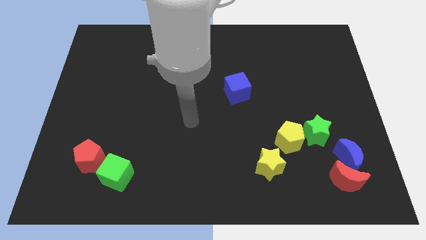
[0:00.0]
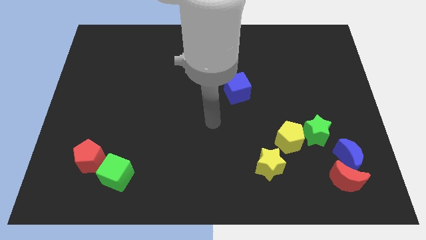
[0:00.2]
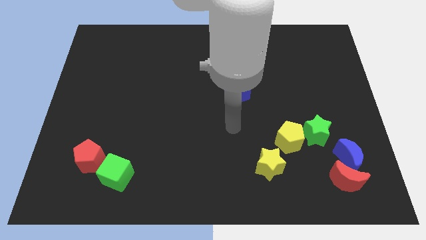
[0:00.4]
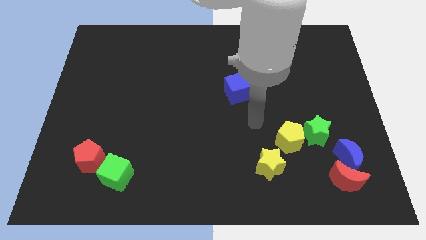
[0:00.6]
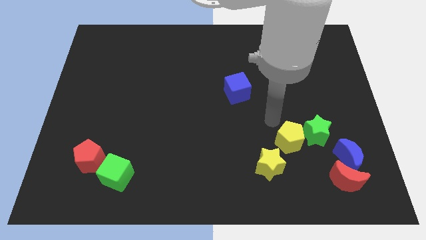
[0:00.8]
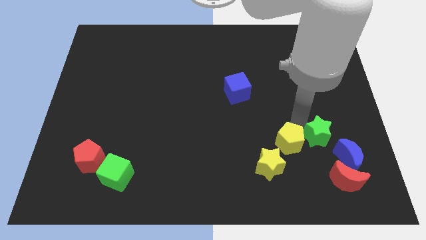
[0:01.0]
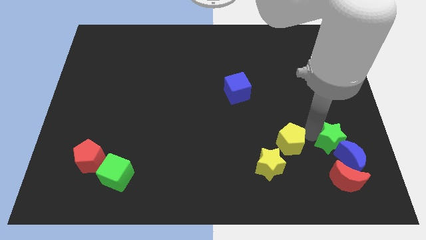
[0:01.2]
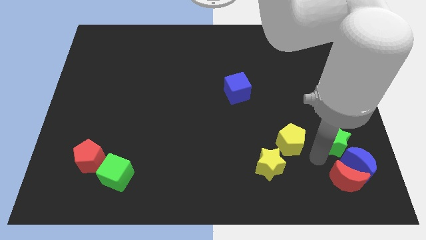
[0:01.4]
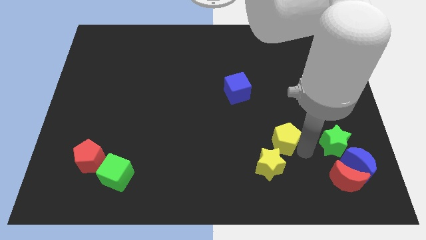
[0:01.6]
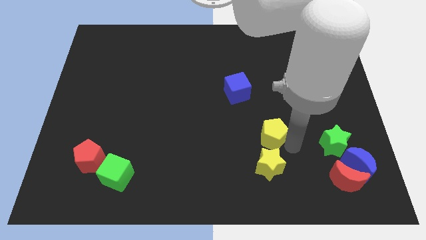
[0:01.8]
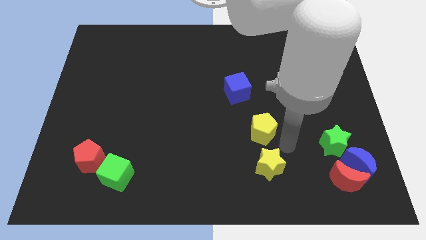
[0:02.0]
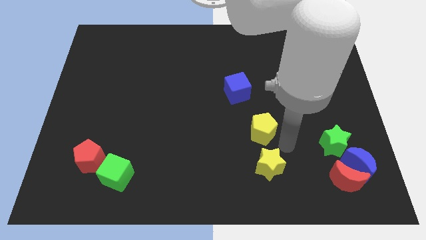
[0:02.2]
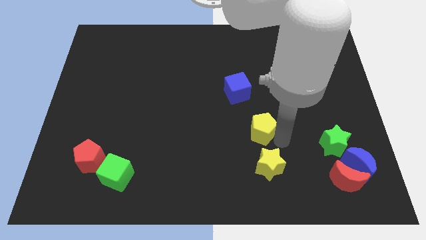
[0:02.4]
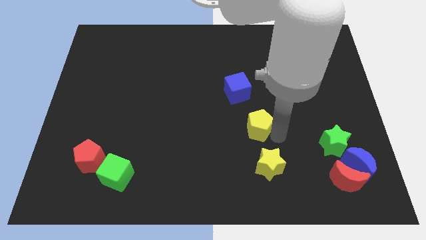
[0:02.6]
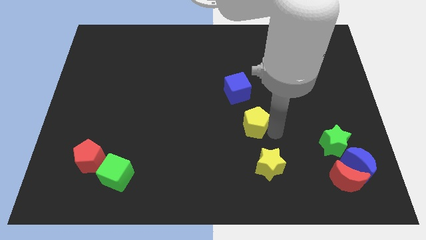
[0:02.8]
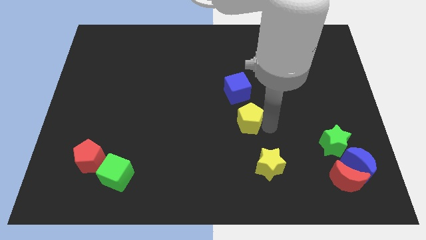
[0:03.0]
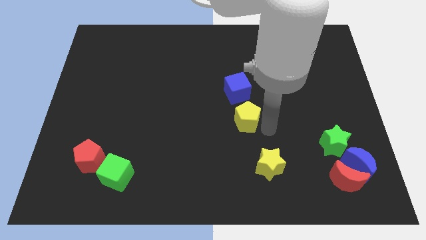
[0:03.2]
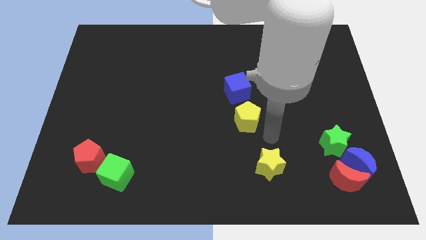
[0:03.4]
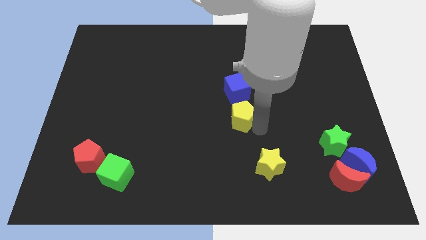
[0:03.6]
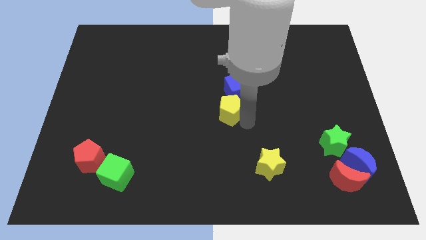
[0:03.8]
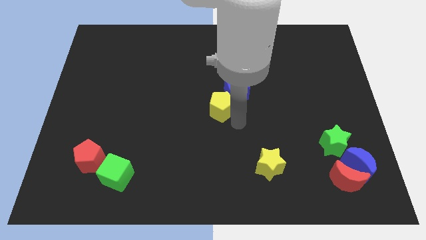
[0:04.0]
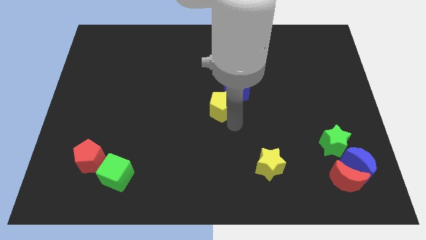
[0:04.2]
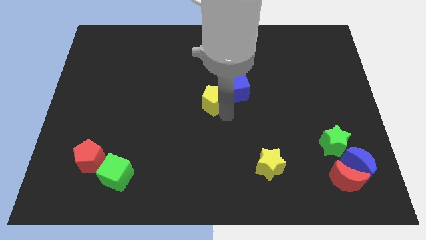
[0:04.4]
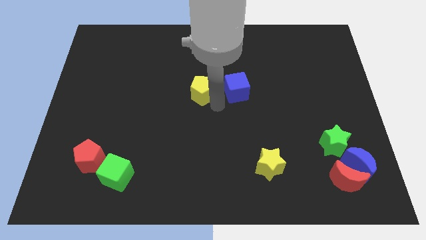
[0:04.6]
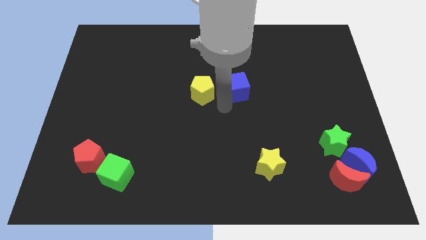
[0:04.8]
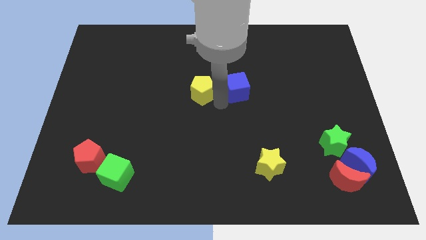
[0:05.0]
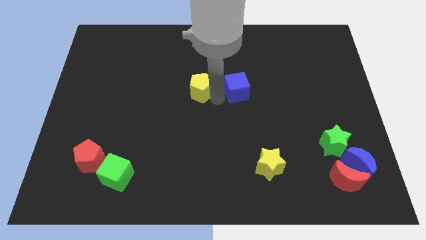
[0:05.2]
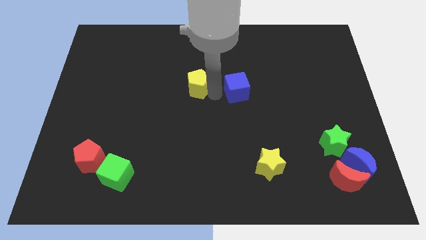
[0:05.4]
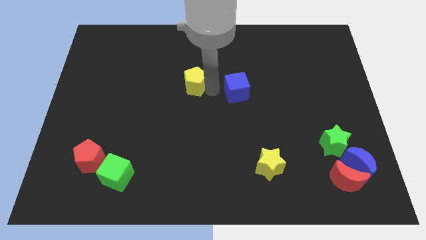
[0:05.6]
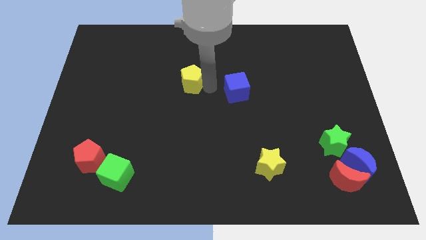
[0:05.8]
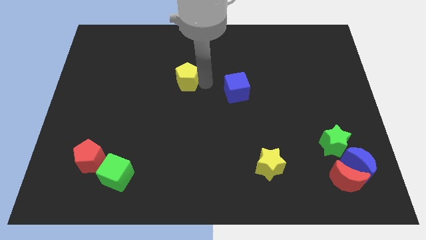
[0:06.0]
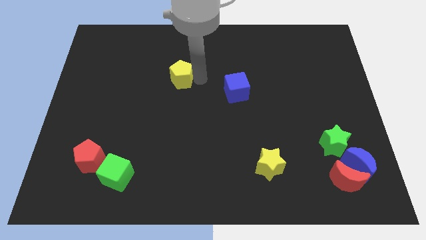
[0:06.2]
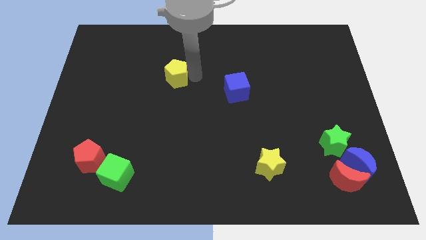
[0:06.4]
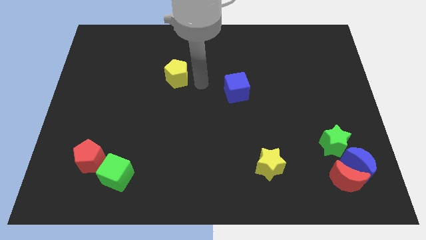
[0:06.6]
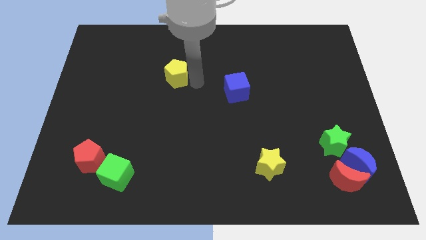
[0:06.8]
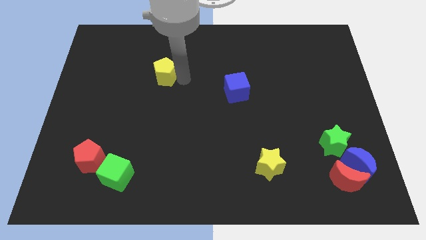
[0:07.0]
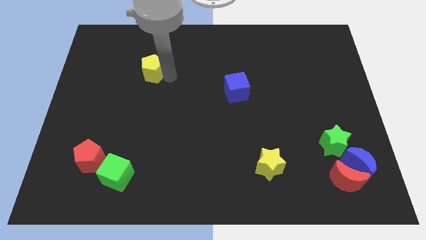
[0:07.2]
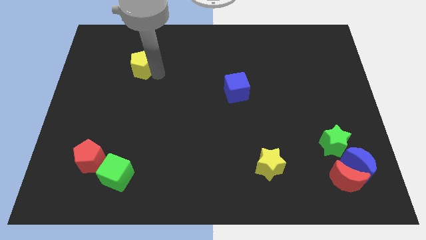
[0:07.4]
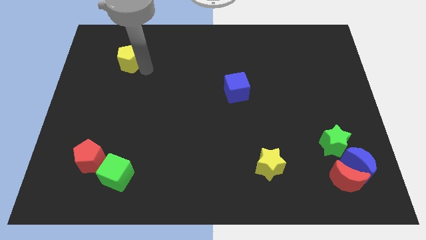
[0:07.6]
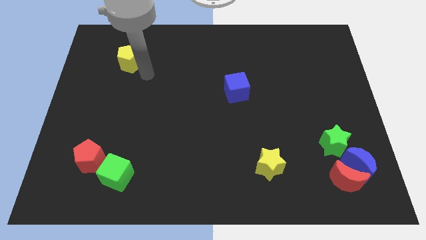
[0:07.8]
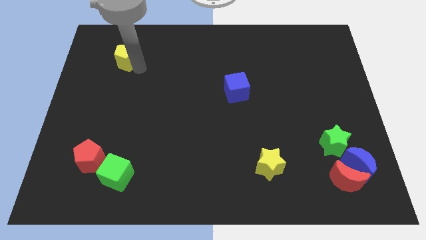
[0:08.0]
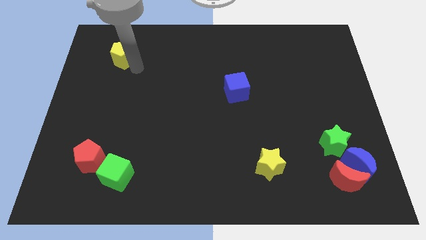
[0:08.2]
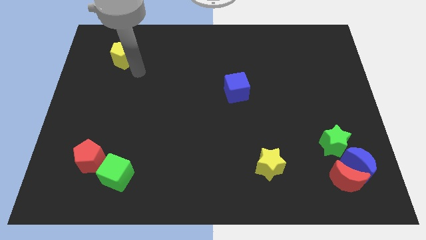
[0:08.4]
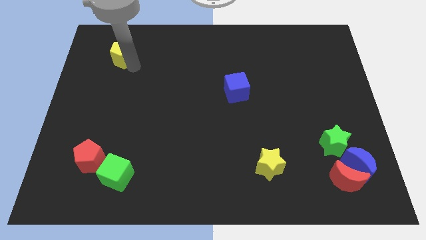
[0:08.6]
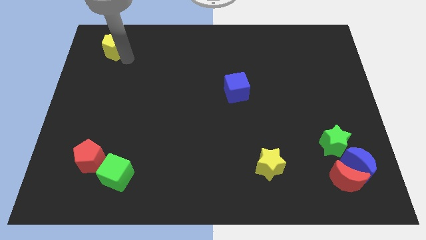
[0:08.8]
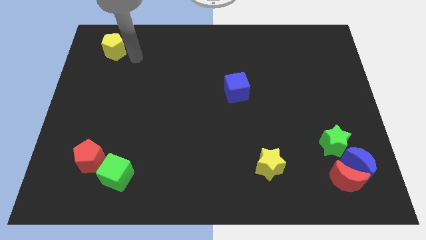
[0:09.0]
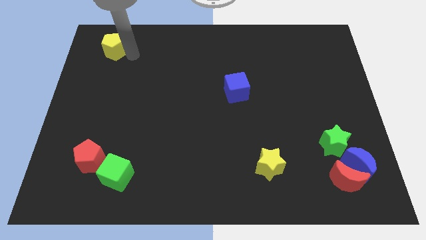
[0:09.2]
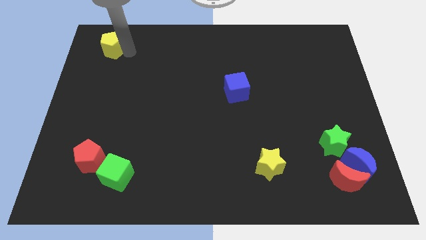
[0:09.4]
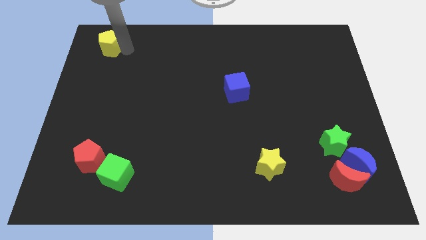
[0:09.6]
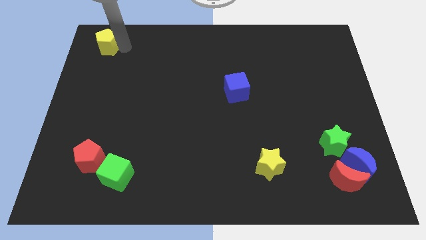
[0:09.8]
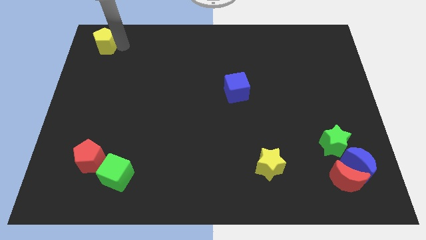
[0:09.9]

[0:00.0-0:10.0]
slide the yellow pentagon to the top left of the board

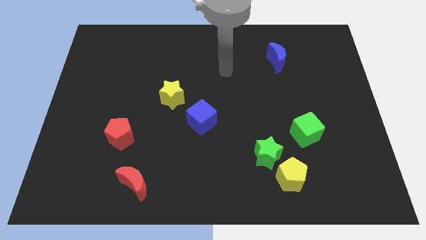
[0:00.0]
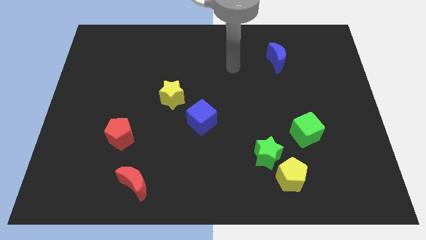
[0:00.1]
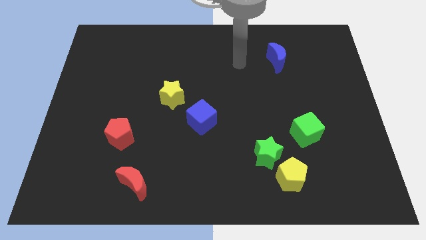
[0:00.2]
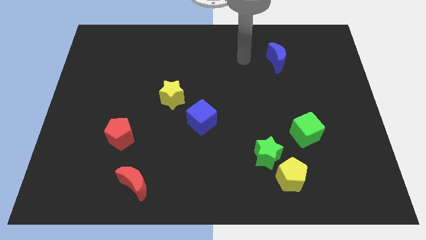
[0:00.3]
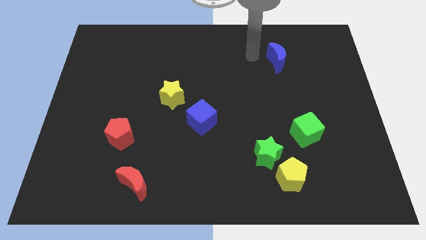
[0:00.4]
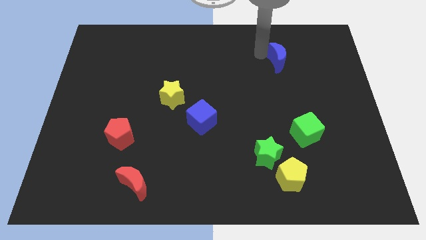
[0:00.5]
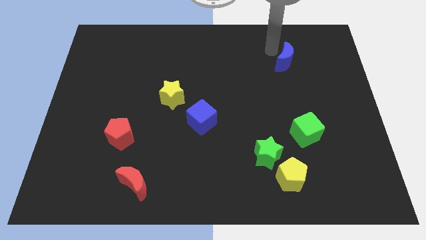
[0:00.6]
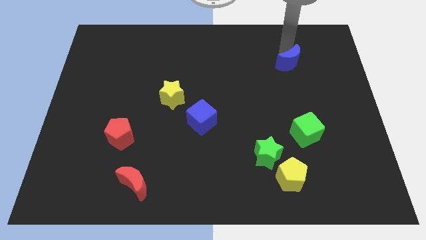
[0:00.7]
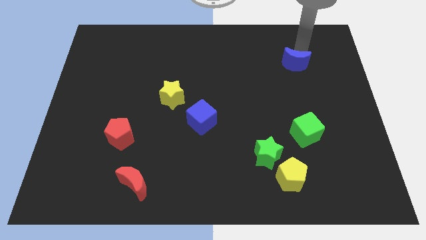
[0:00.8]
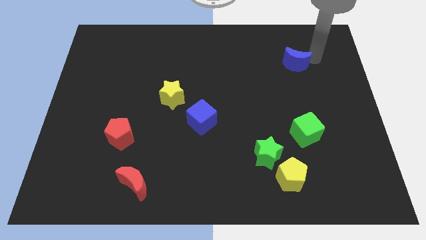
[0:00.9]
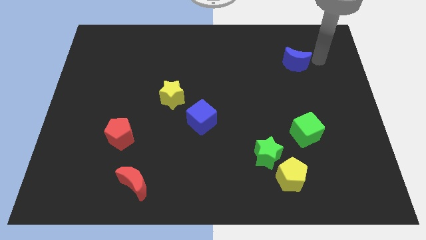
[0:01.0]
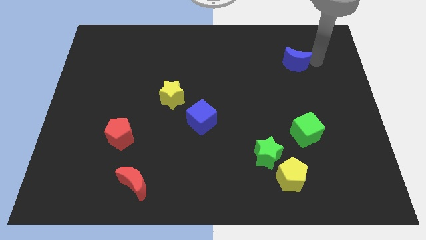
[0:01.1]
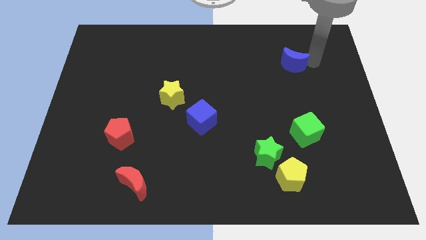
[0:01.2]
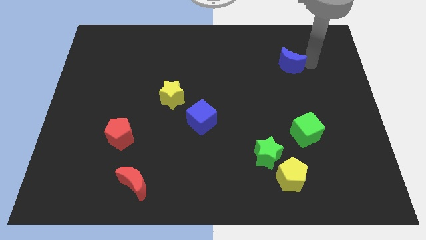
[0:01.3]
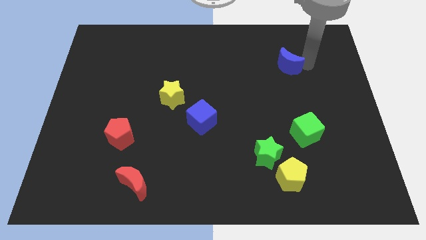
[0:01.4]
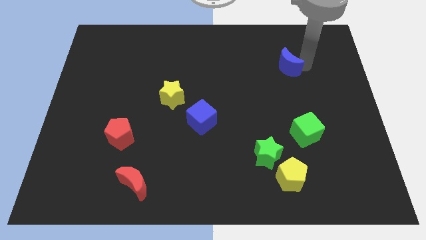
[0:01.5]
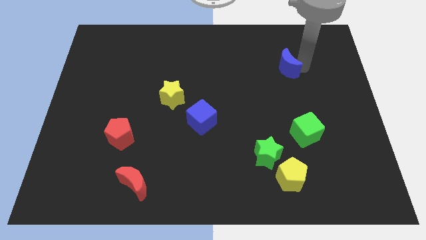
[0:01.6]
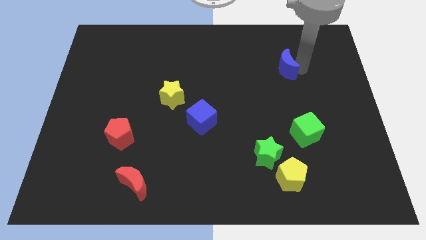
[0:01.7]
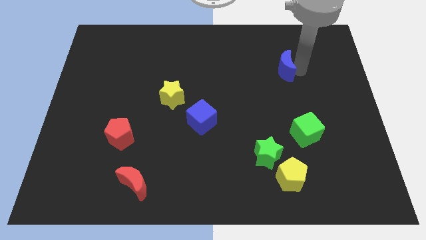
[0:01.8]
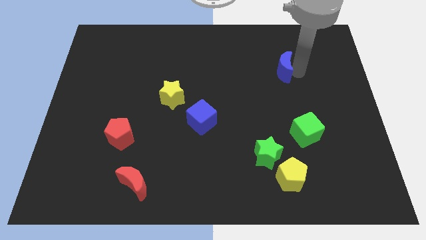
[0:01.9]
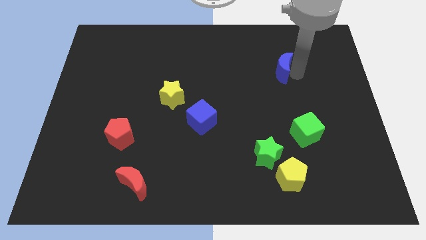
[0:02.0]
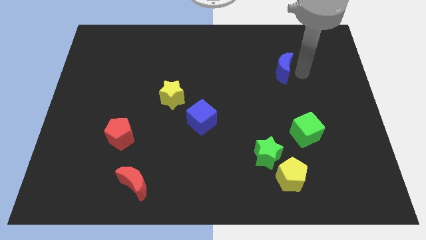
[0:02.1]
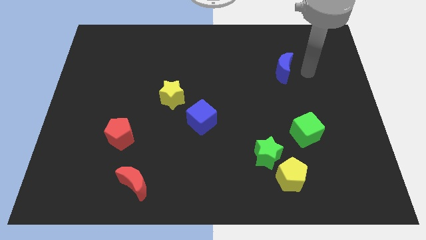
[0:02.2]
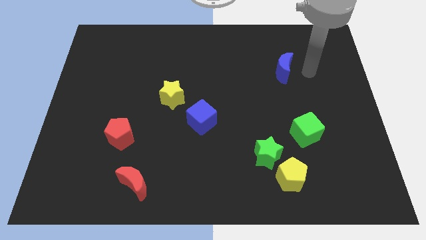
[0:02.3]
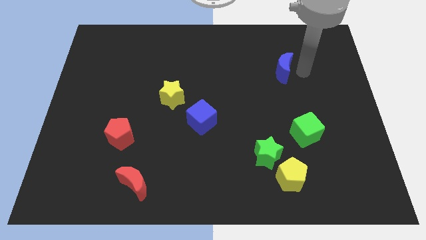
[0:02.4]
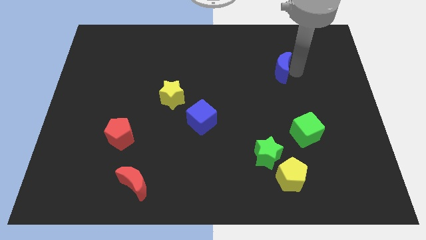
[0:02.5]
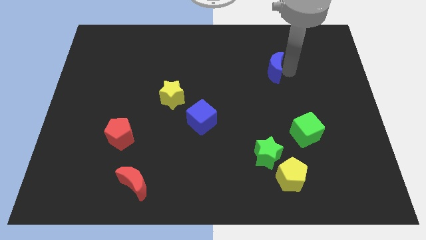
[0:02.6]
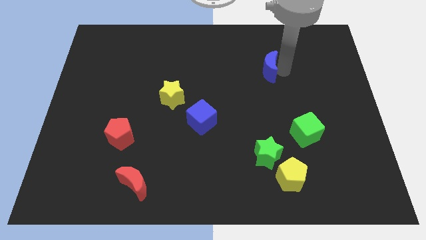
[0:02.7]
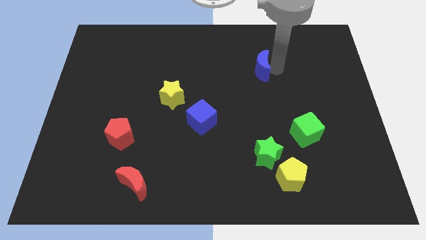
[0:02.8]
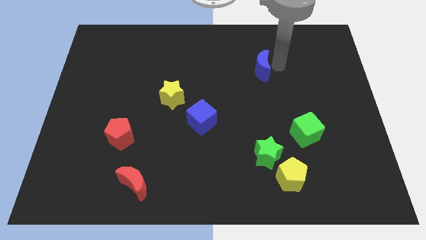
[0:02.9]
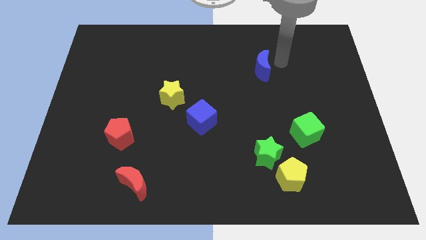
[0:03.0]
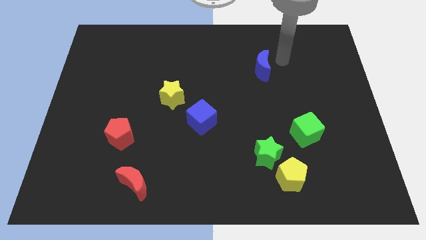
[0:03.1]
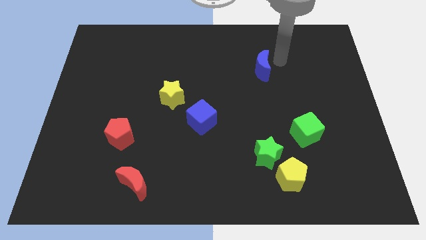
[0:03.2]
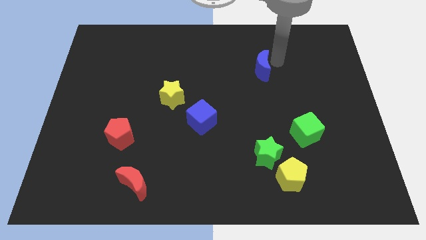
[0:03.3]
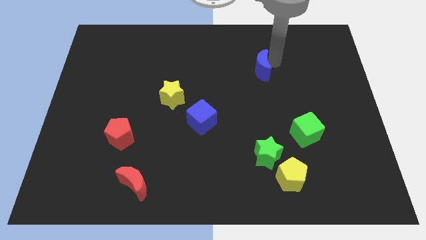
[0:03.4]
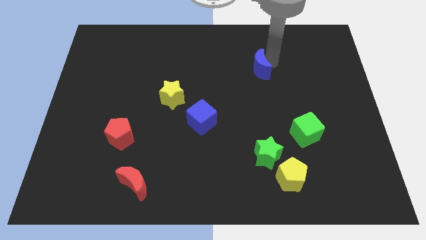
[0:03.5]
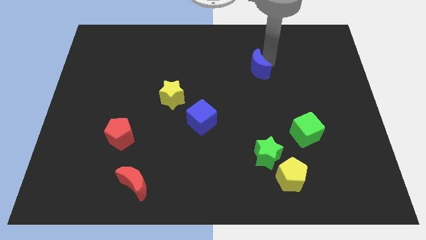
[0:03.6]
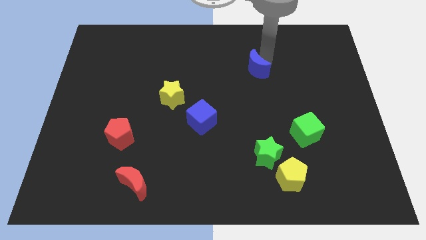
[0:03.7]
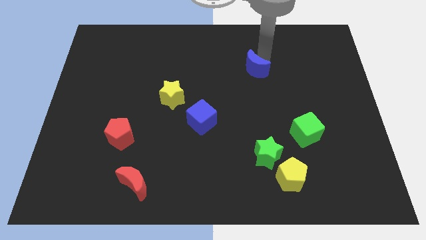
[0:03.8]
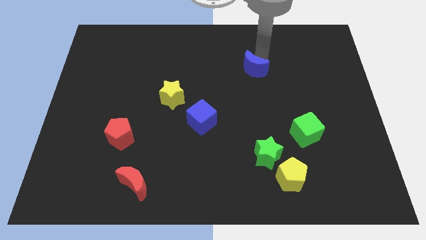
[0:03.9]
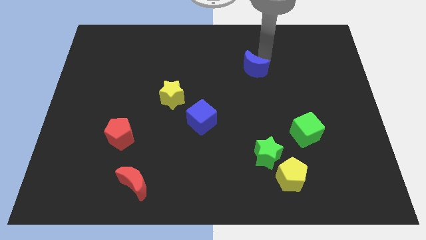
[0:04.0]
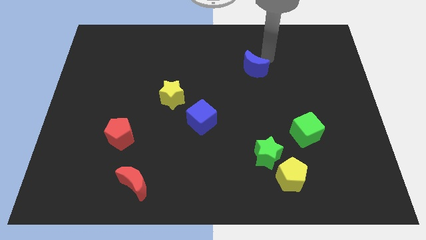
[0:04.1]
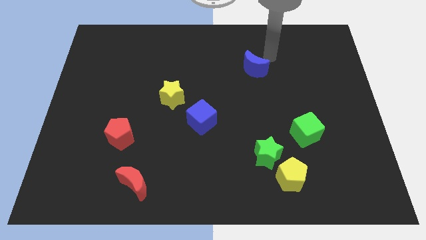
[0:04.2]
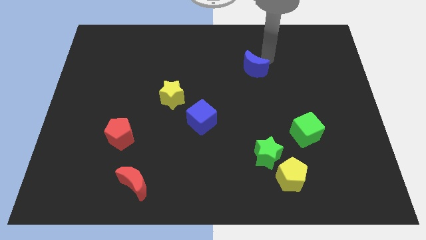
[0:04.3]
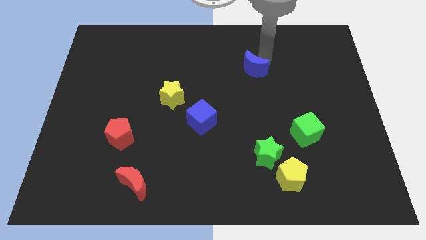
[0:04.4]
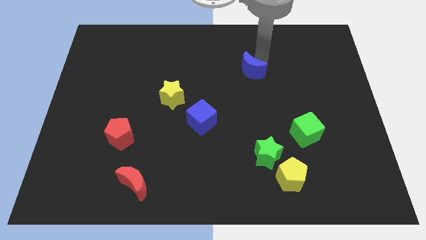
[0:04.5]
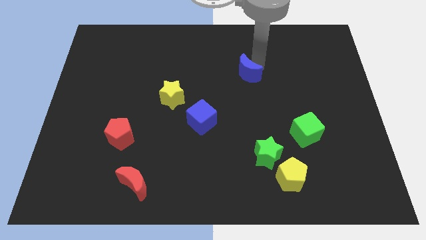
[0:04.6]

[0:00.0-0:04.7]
slide the blue moon to the middle
